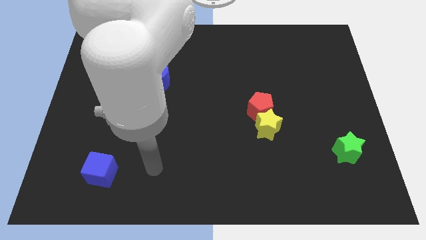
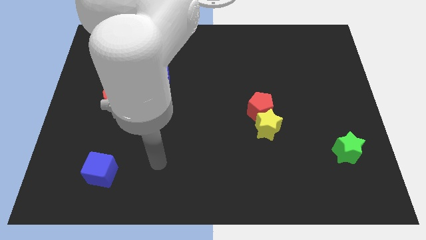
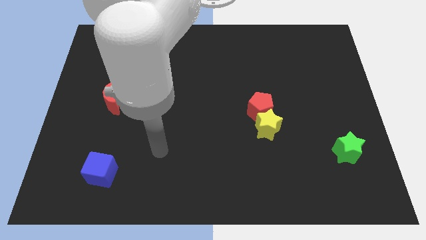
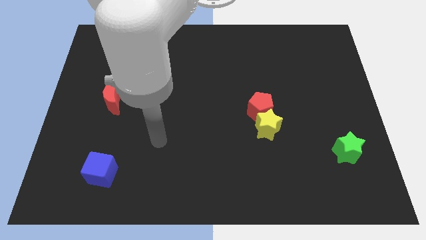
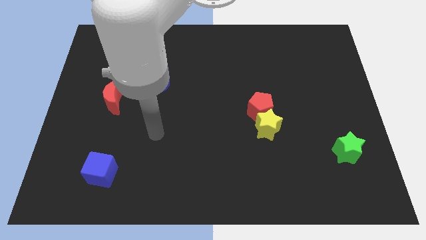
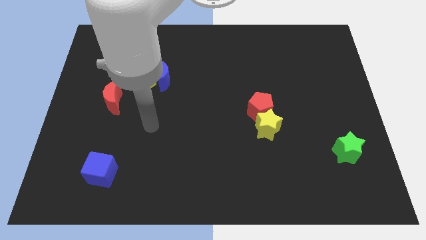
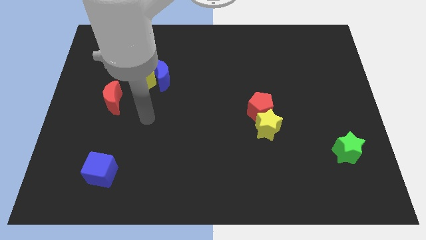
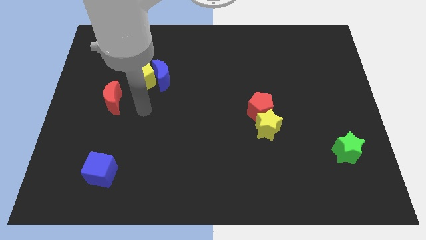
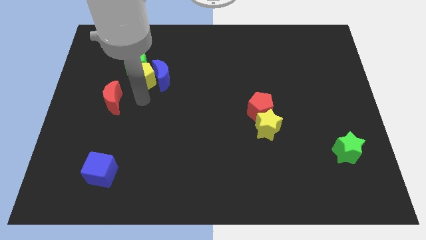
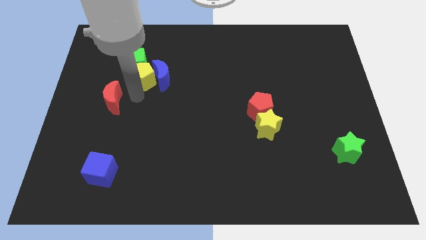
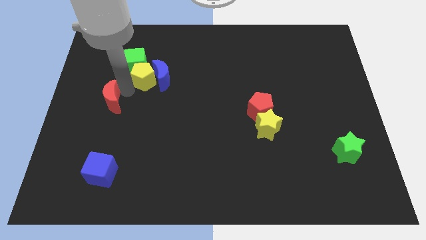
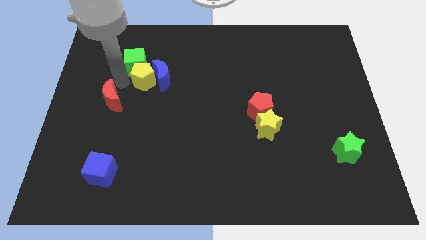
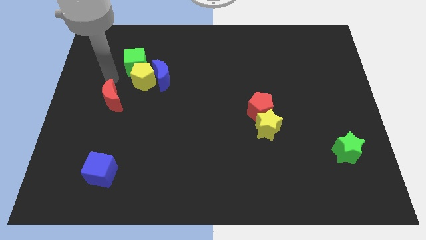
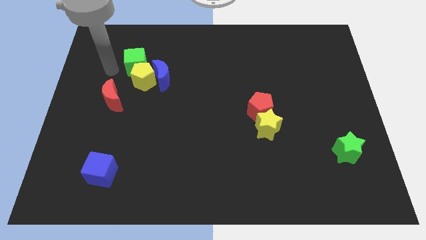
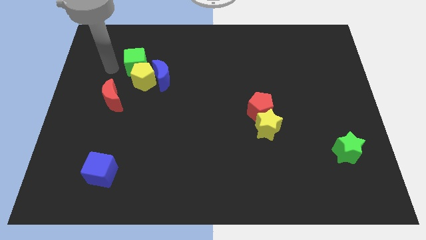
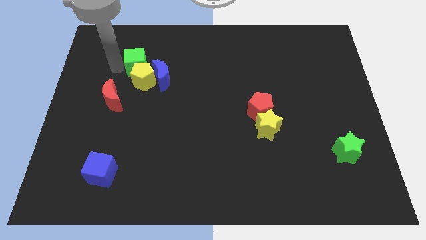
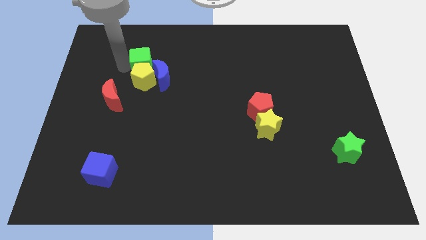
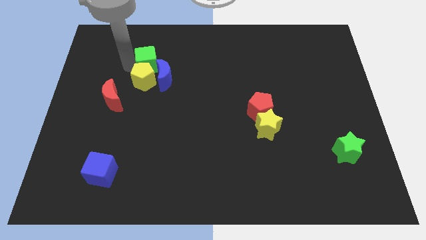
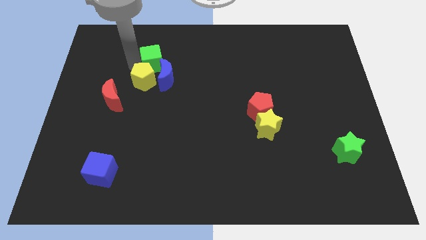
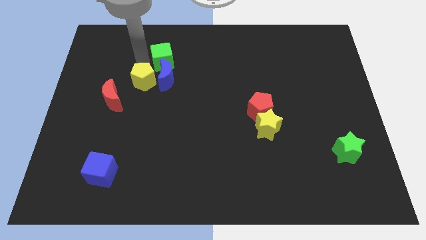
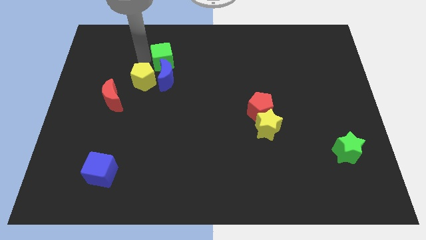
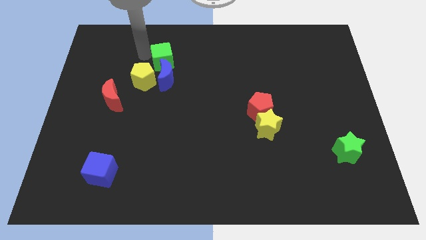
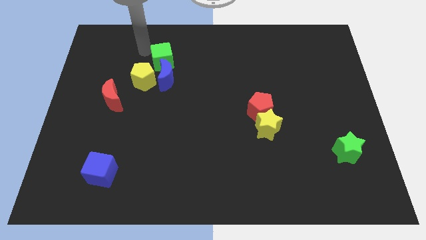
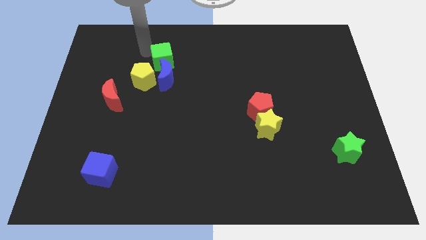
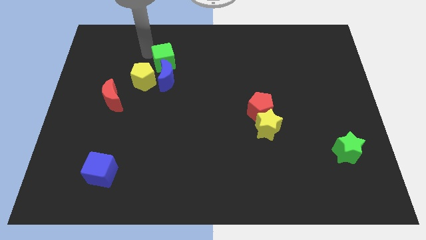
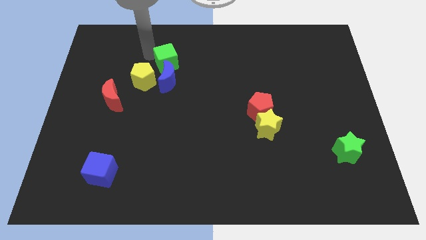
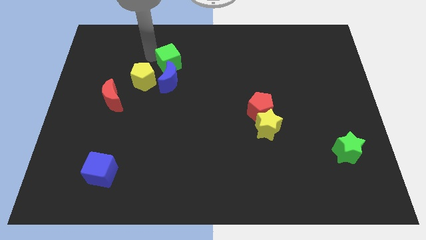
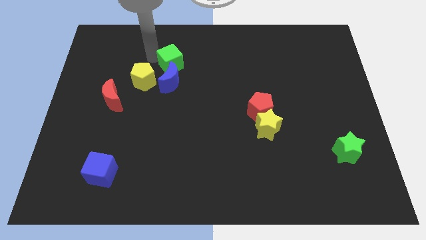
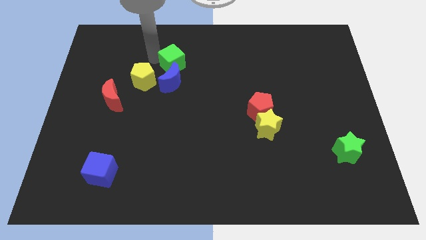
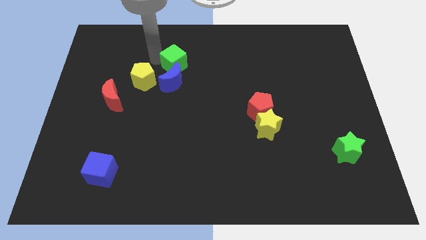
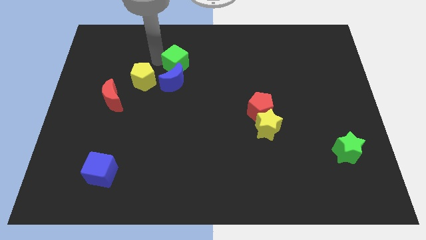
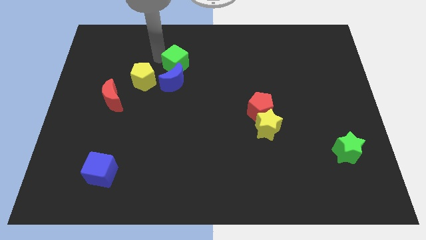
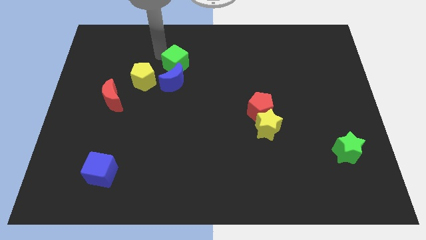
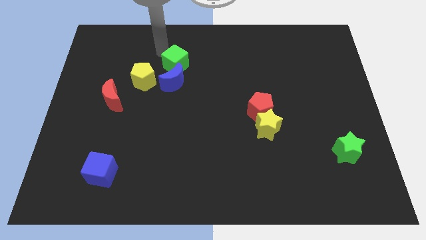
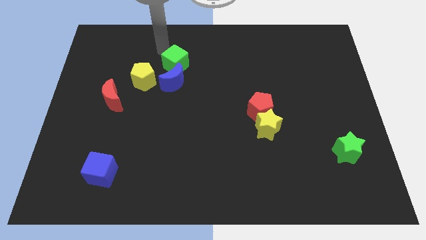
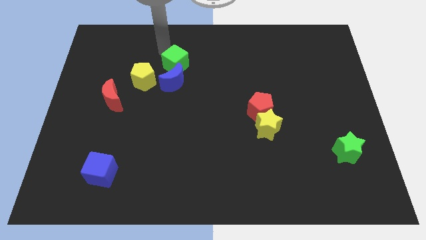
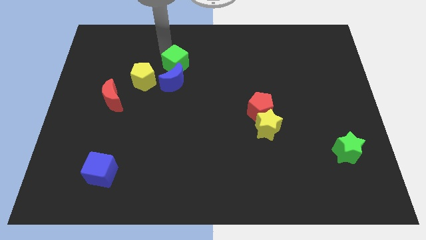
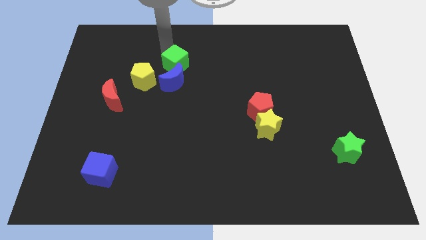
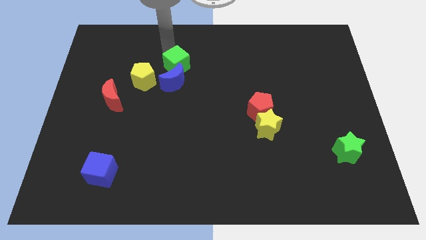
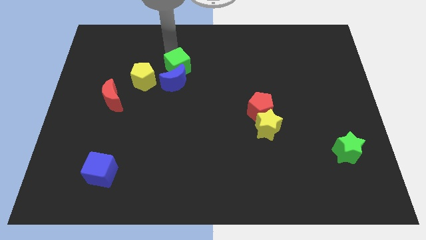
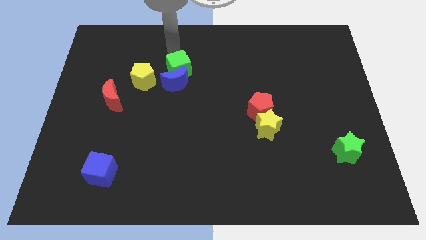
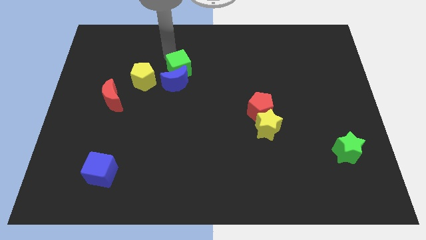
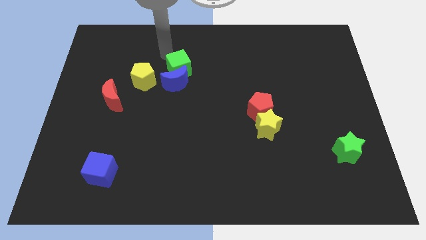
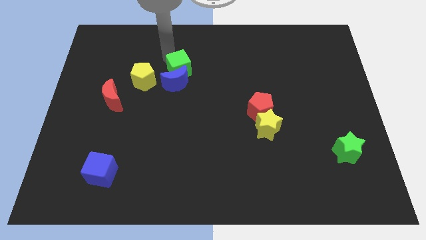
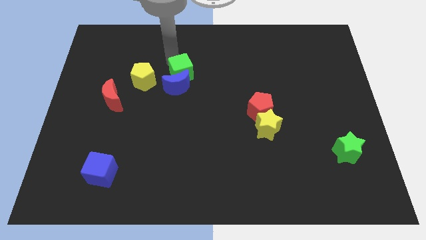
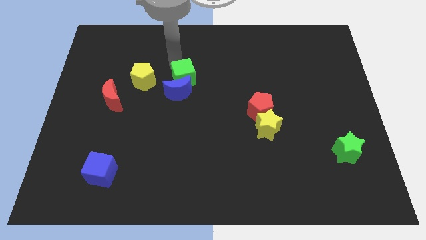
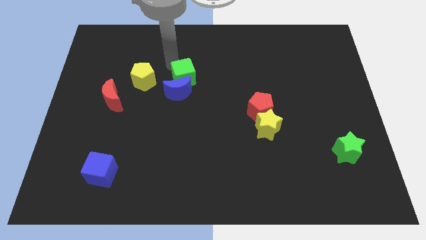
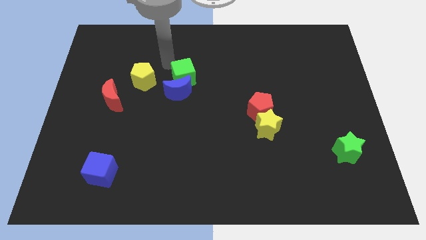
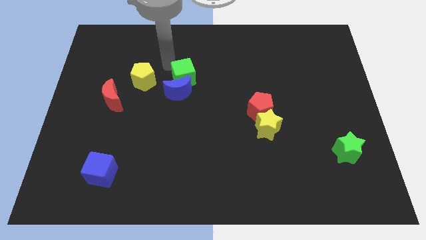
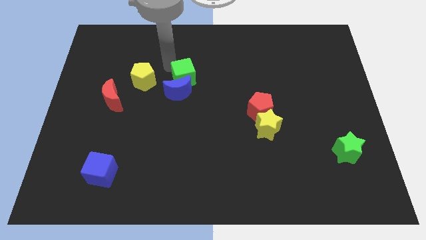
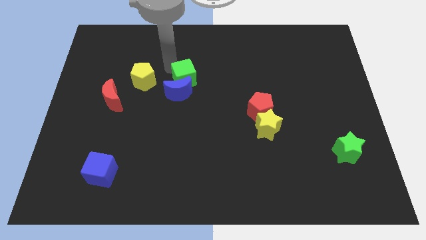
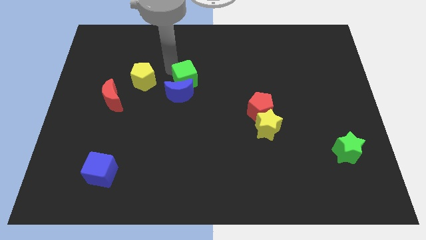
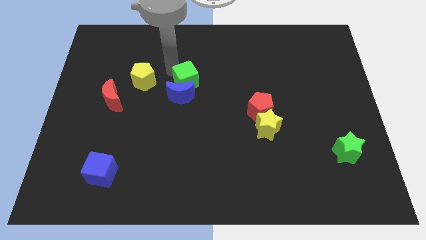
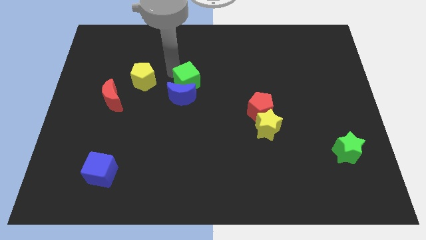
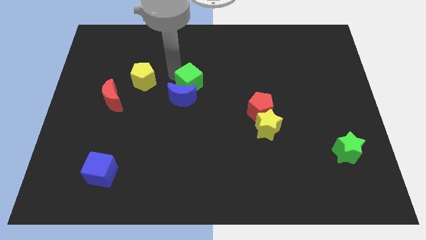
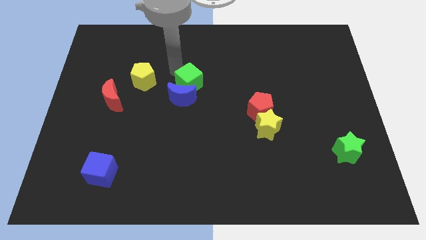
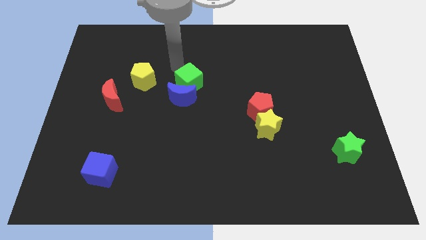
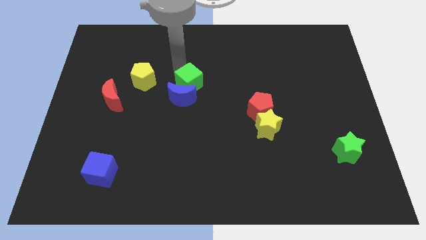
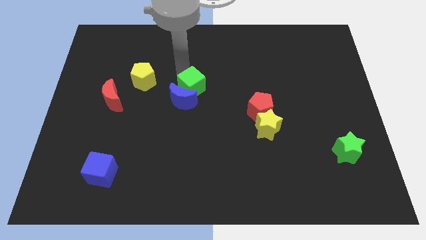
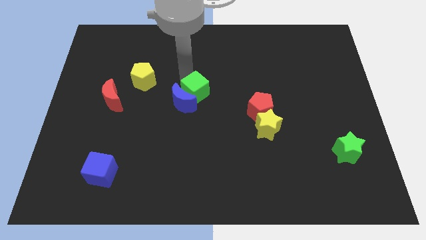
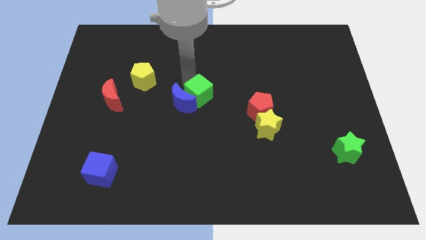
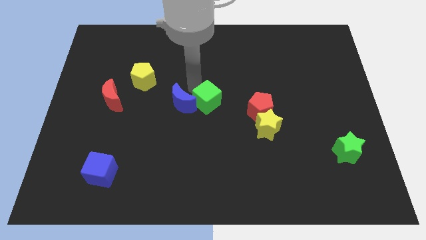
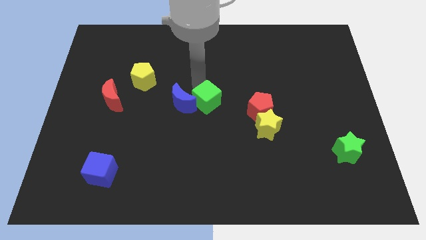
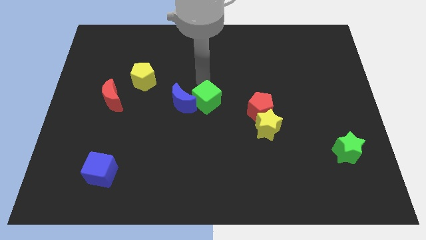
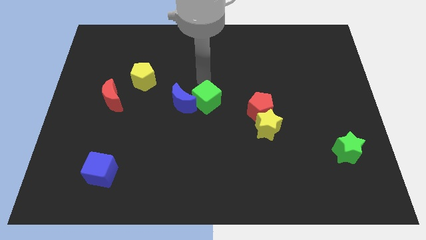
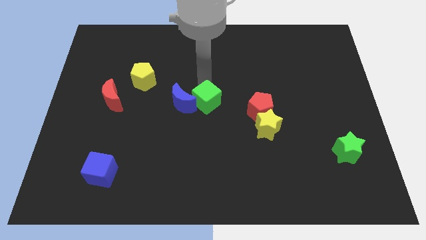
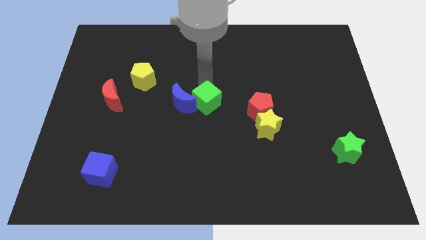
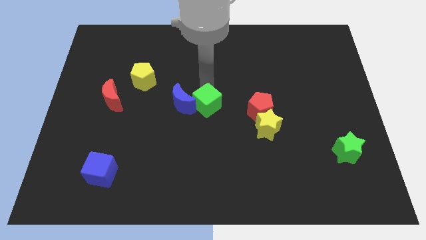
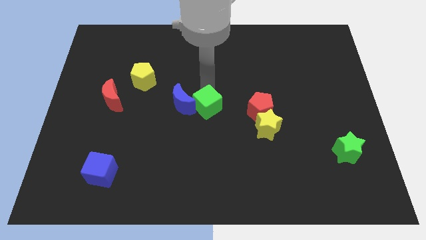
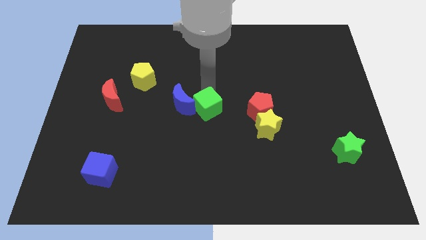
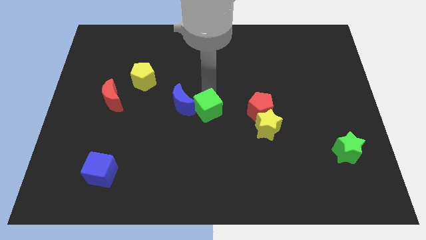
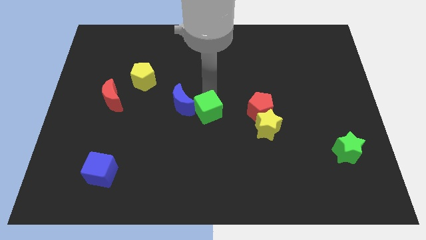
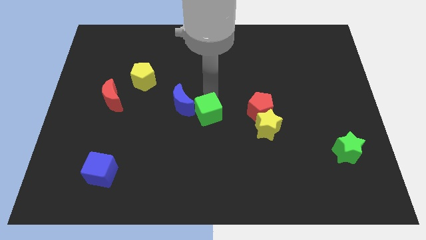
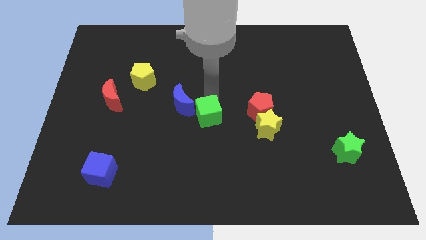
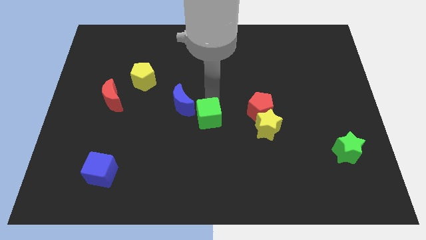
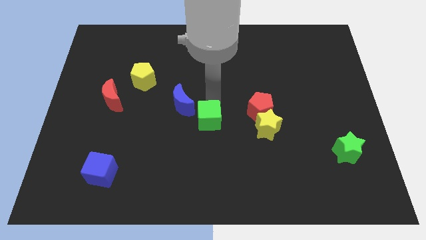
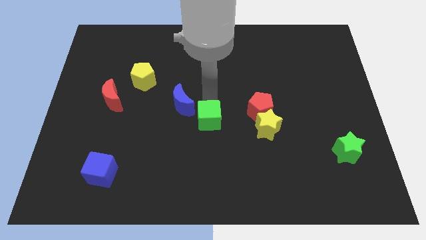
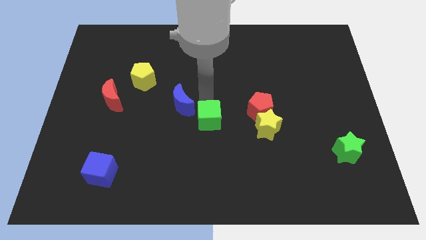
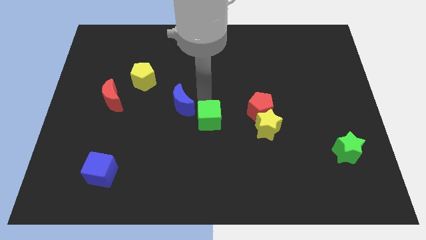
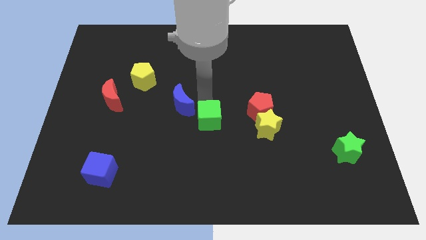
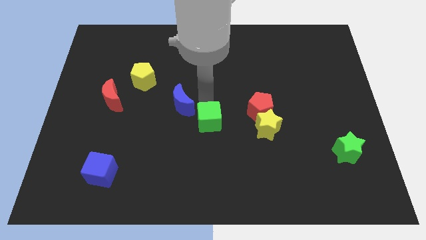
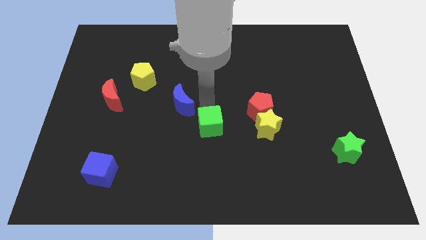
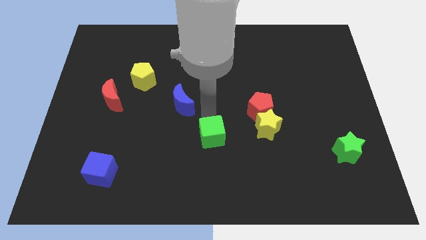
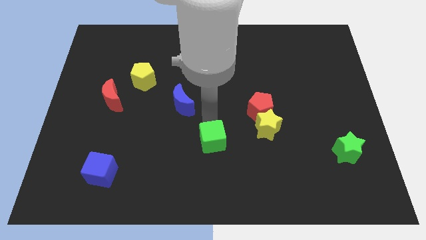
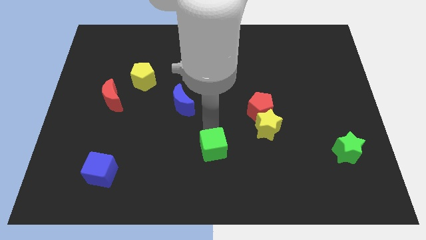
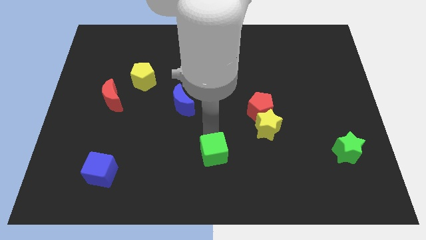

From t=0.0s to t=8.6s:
move the green cube to the bottom side
